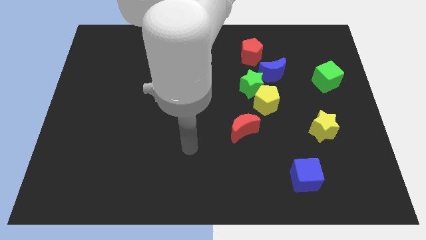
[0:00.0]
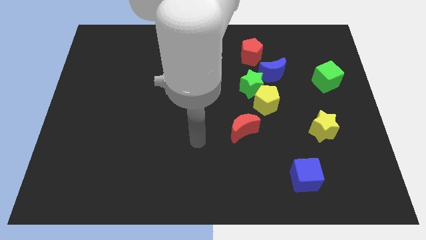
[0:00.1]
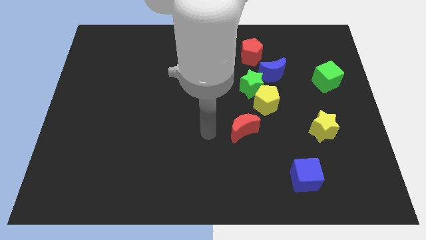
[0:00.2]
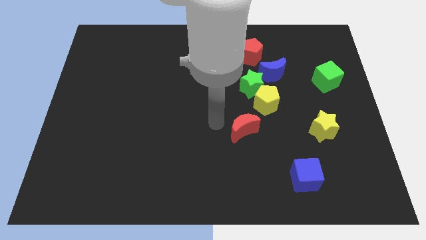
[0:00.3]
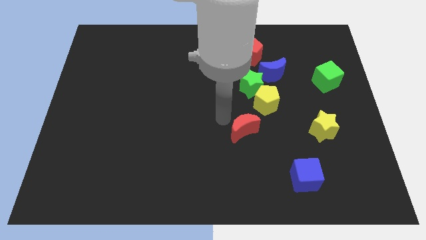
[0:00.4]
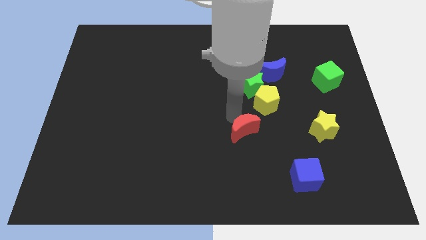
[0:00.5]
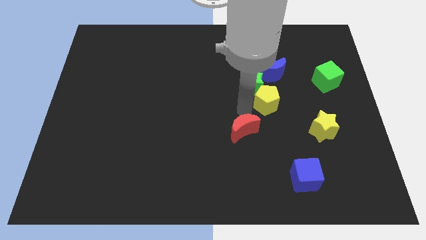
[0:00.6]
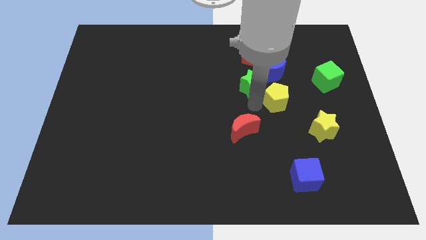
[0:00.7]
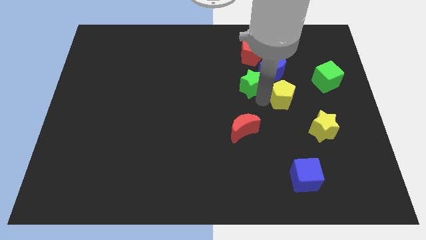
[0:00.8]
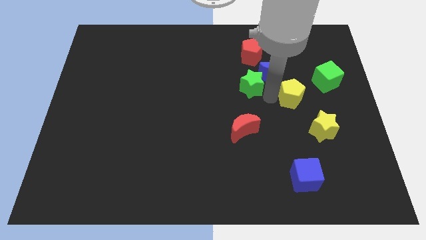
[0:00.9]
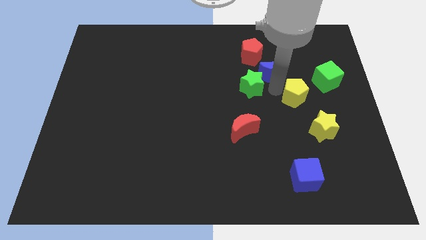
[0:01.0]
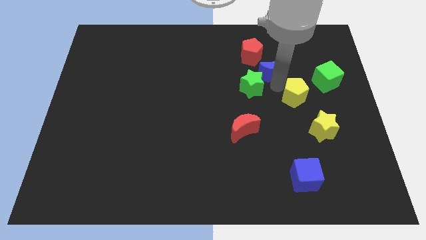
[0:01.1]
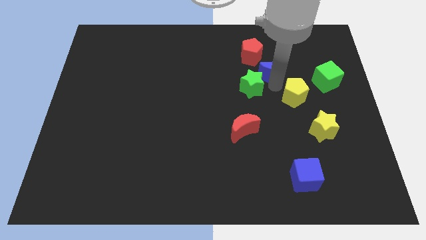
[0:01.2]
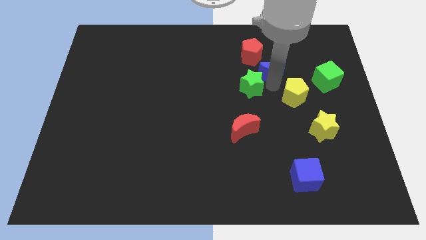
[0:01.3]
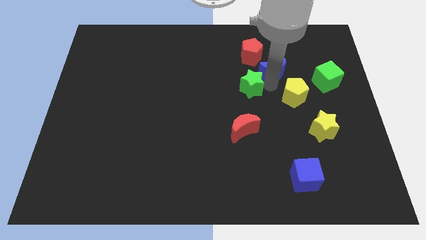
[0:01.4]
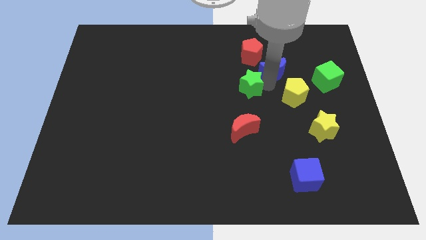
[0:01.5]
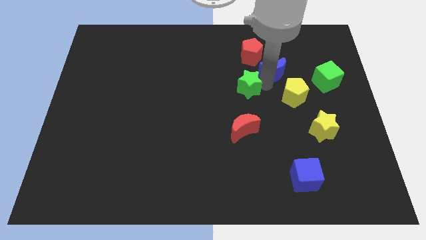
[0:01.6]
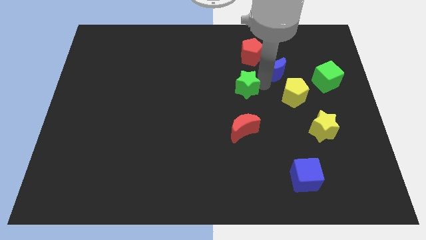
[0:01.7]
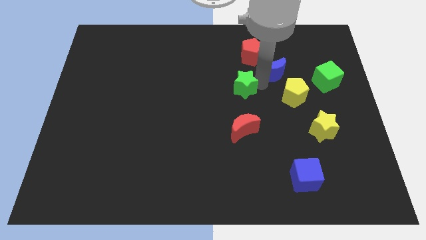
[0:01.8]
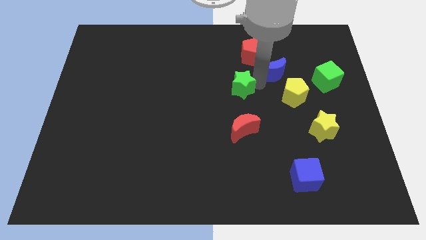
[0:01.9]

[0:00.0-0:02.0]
pull the green star apart from the yellow pentagon and blue moon

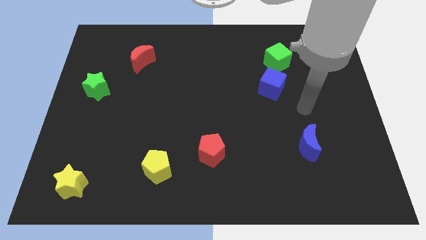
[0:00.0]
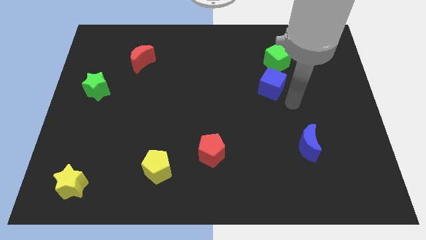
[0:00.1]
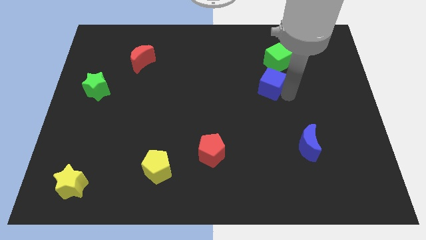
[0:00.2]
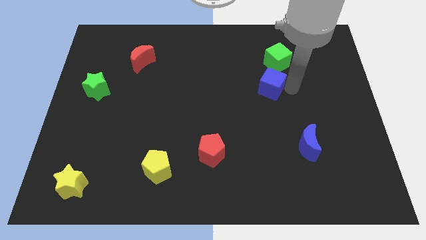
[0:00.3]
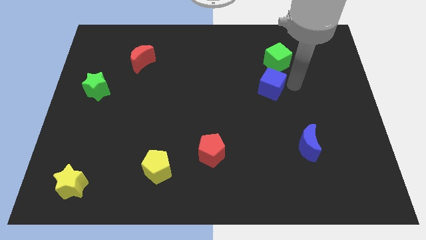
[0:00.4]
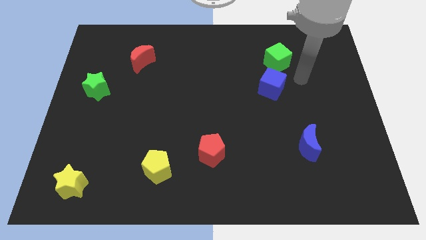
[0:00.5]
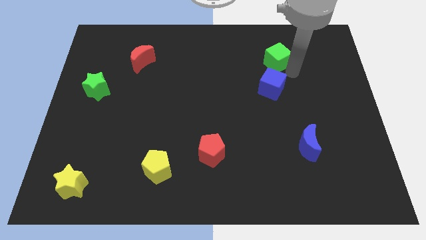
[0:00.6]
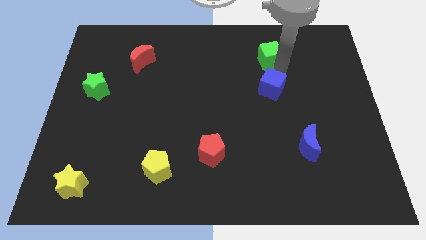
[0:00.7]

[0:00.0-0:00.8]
move the blue cube away from the green cube

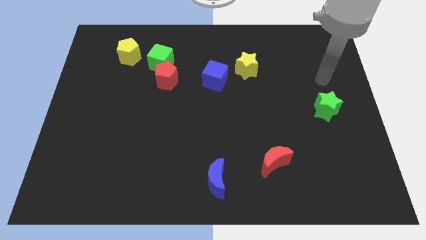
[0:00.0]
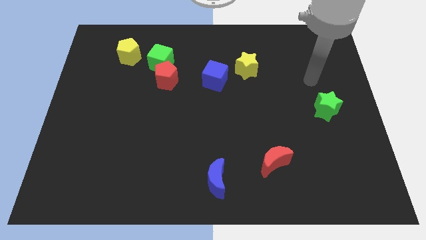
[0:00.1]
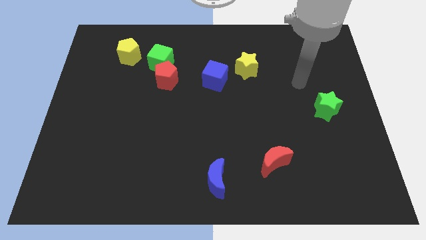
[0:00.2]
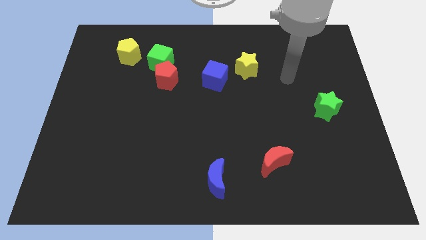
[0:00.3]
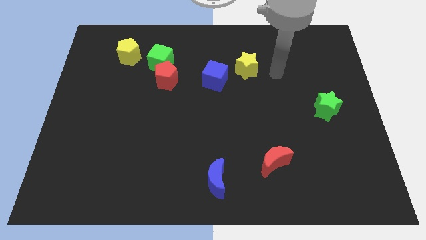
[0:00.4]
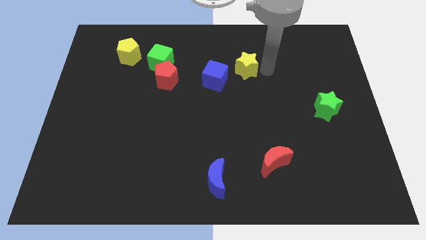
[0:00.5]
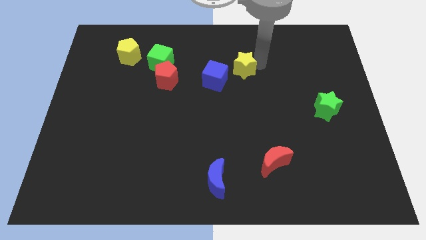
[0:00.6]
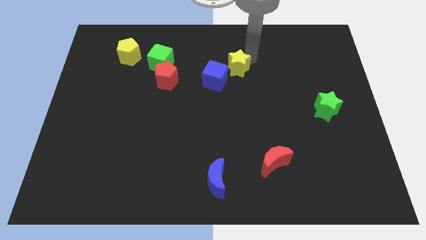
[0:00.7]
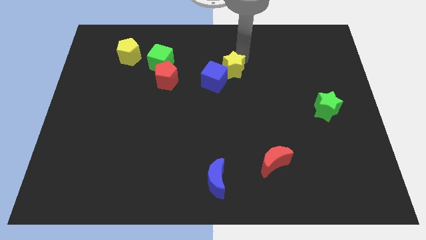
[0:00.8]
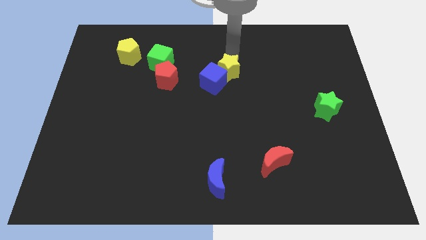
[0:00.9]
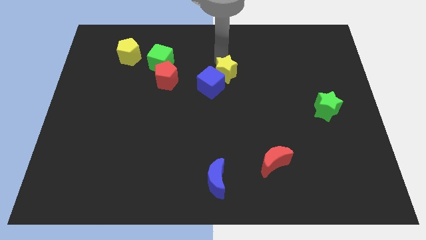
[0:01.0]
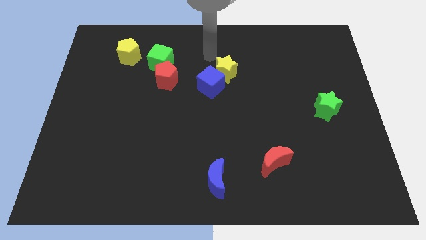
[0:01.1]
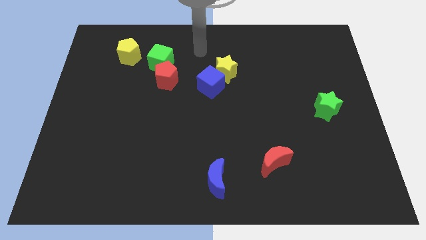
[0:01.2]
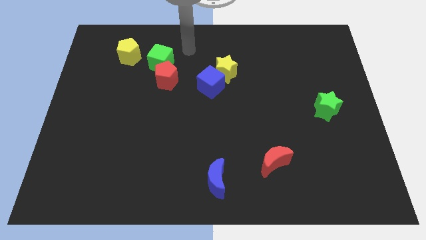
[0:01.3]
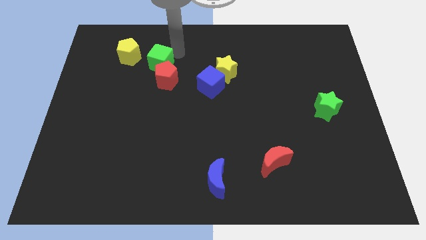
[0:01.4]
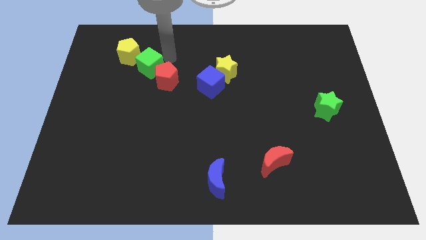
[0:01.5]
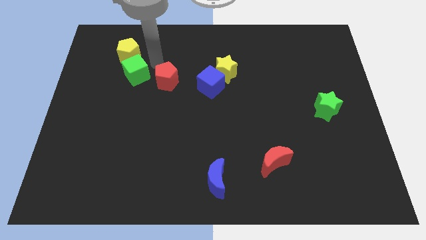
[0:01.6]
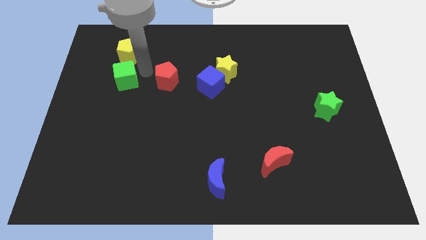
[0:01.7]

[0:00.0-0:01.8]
pull the red pentagon apart from the green cube

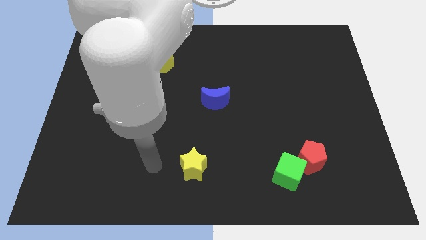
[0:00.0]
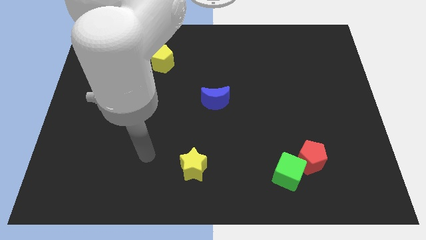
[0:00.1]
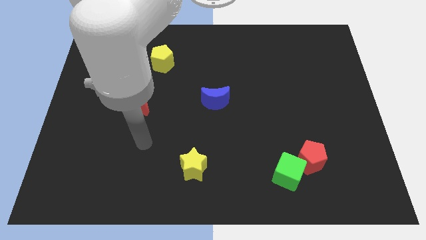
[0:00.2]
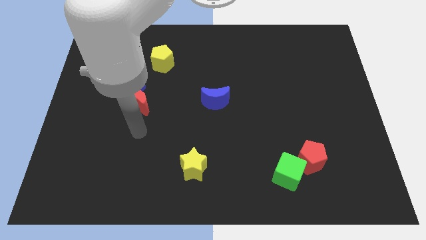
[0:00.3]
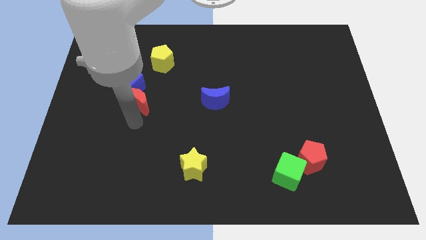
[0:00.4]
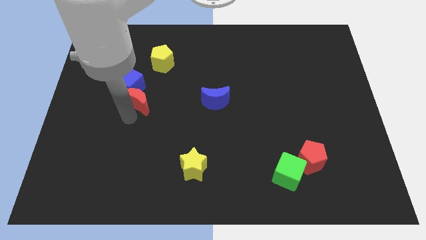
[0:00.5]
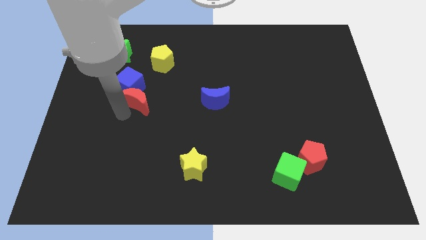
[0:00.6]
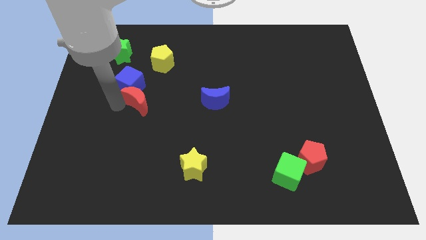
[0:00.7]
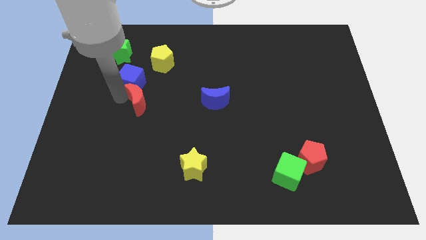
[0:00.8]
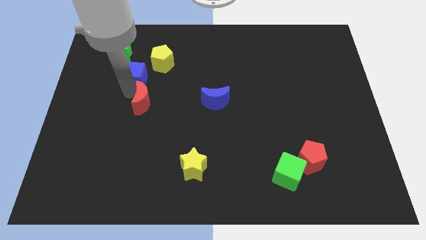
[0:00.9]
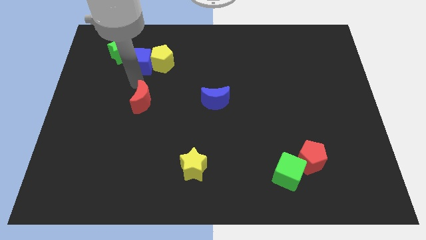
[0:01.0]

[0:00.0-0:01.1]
move the red moon away from the blue cube

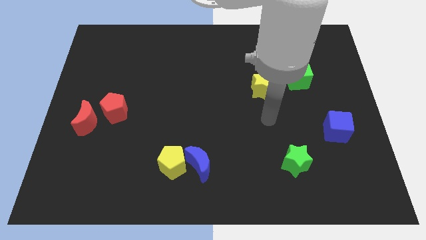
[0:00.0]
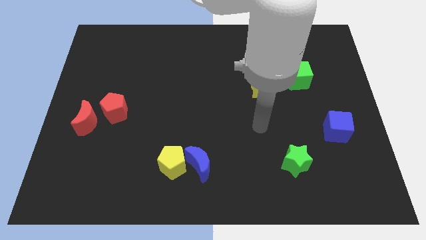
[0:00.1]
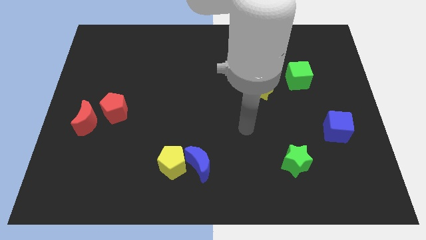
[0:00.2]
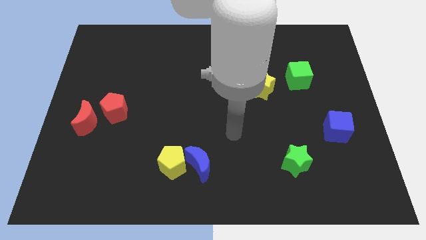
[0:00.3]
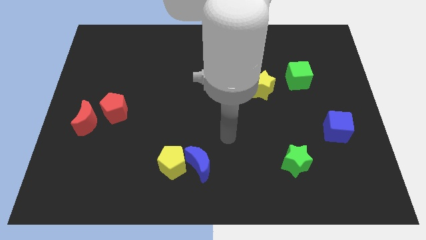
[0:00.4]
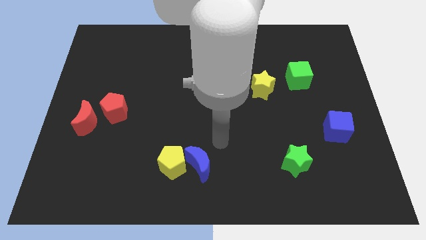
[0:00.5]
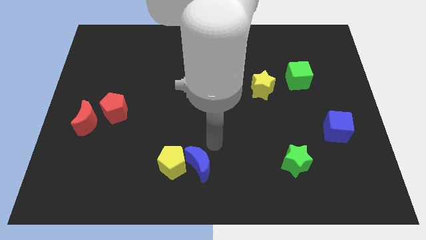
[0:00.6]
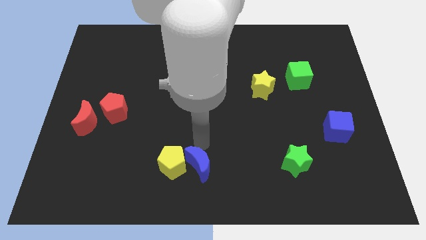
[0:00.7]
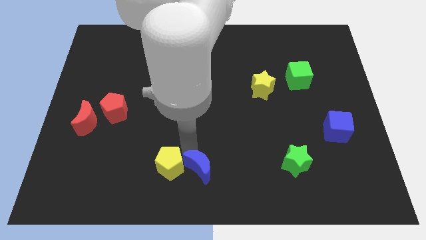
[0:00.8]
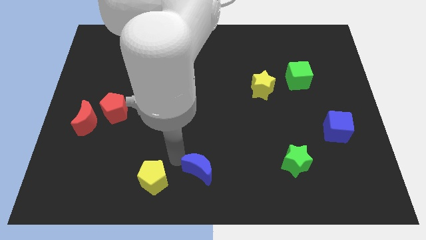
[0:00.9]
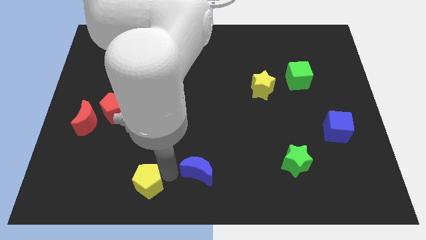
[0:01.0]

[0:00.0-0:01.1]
separate the blue moon from the yellow pentagon

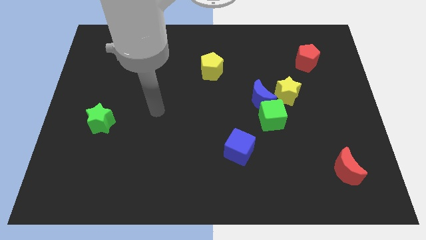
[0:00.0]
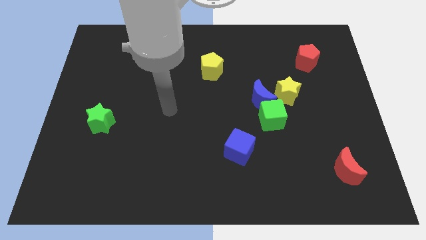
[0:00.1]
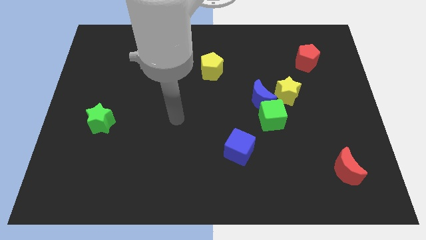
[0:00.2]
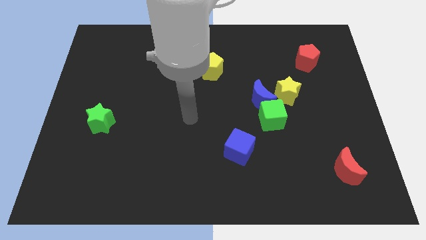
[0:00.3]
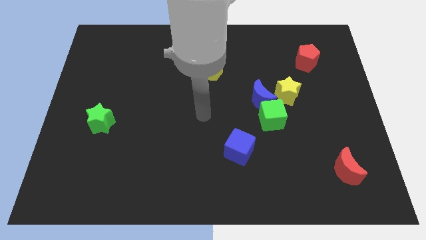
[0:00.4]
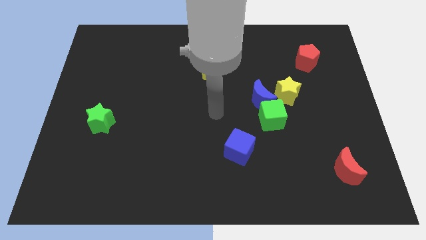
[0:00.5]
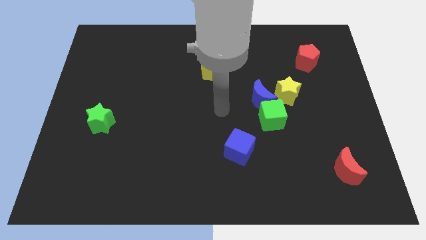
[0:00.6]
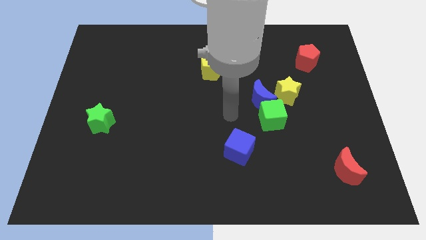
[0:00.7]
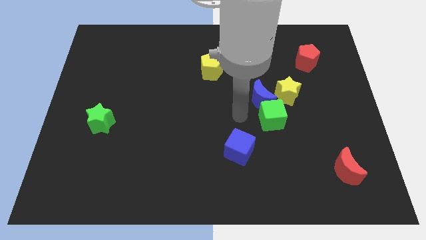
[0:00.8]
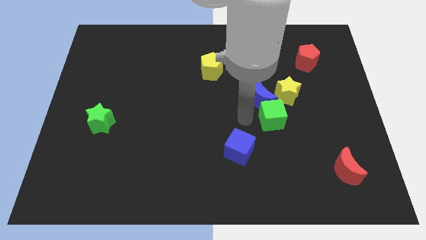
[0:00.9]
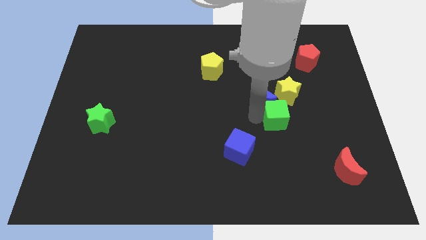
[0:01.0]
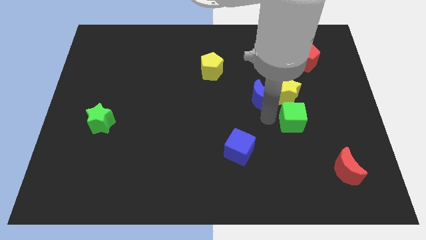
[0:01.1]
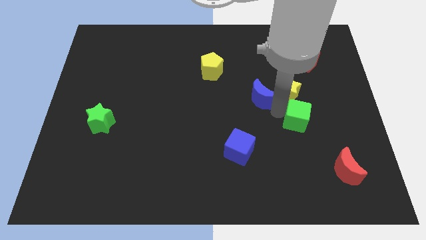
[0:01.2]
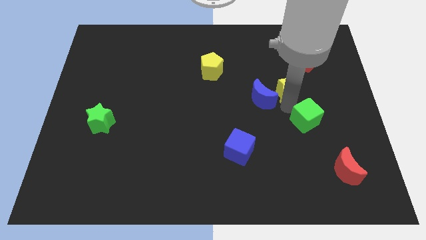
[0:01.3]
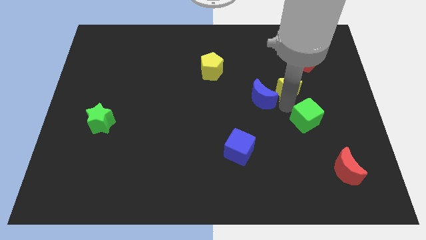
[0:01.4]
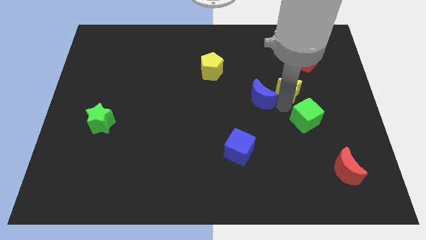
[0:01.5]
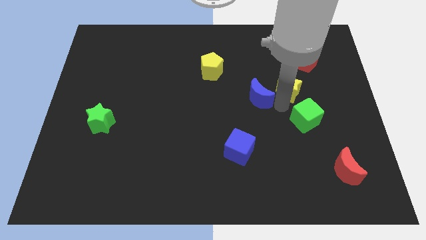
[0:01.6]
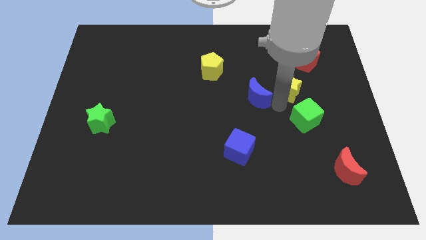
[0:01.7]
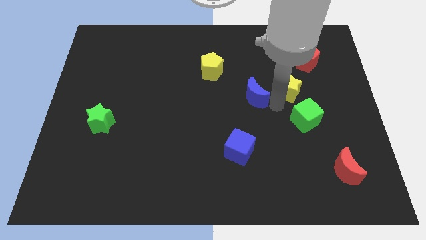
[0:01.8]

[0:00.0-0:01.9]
move the blue moon away from the green cube and yellow star

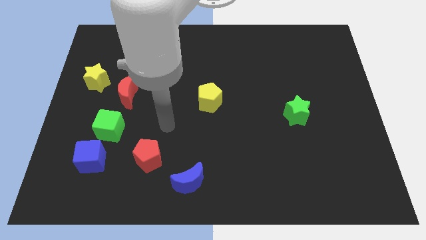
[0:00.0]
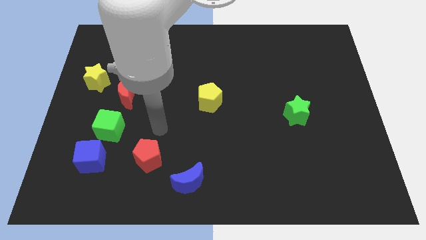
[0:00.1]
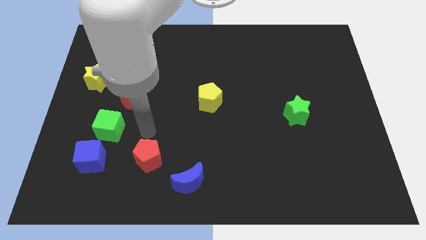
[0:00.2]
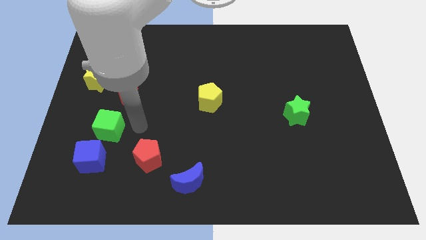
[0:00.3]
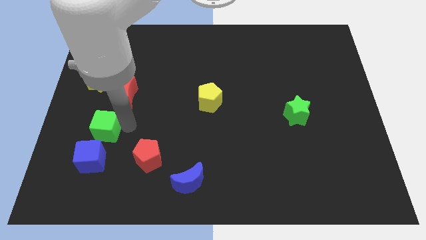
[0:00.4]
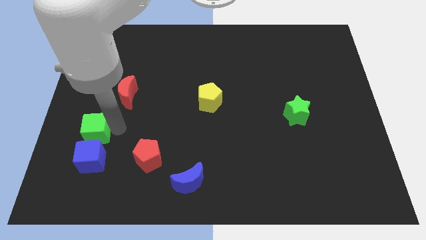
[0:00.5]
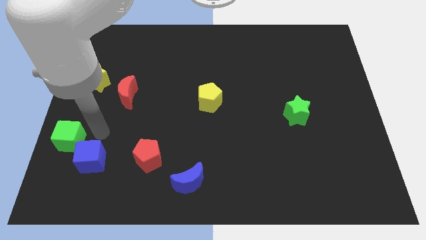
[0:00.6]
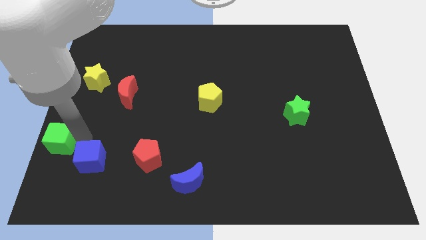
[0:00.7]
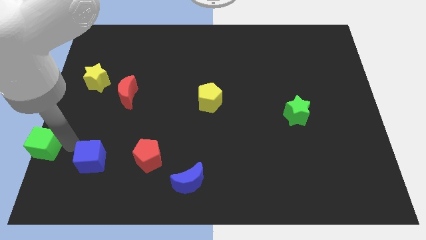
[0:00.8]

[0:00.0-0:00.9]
pull the blue cube apart from the green cube
